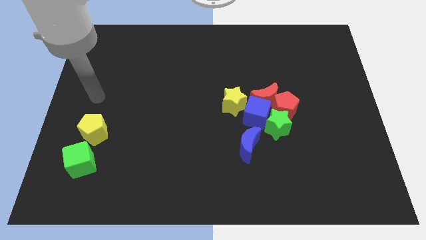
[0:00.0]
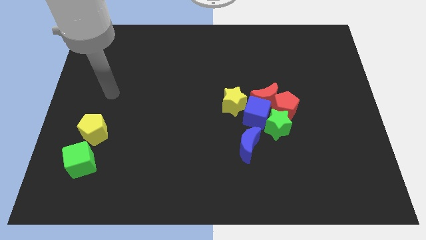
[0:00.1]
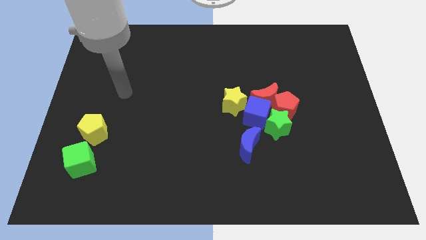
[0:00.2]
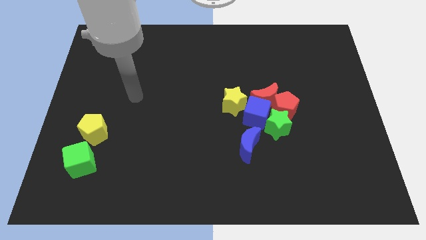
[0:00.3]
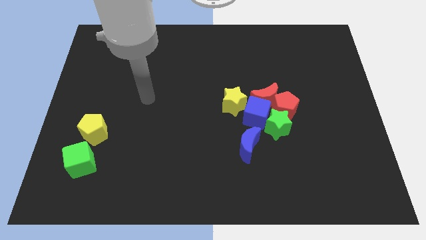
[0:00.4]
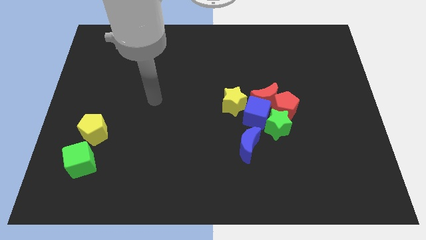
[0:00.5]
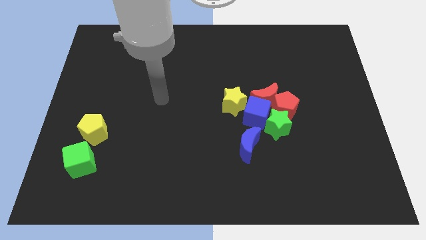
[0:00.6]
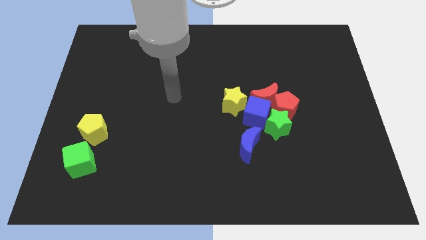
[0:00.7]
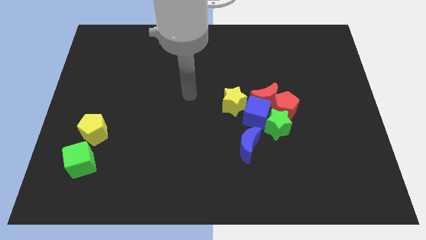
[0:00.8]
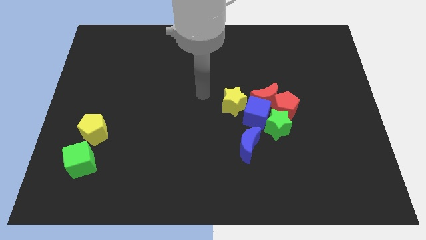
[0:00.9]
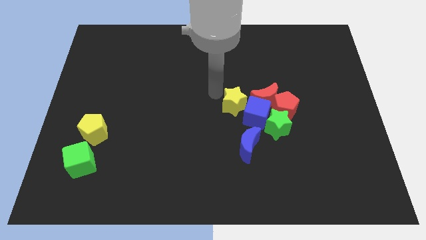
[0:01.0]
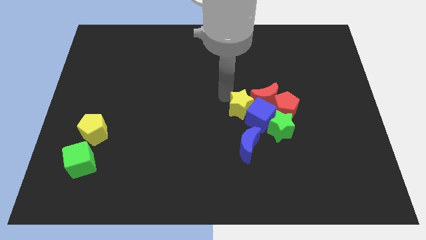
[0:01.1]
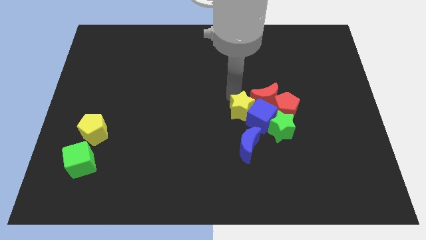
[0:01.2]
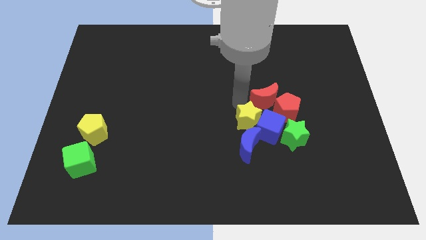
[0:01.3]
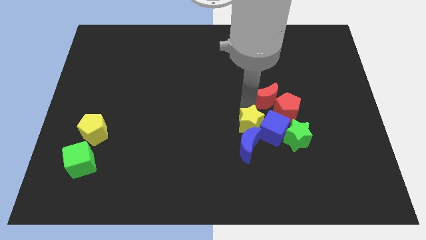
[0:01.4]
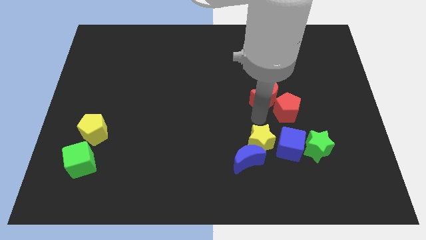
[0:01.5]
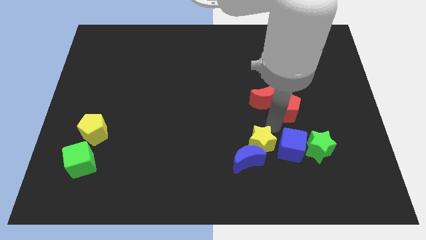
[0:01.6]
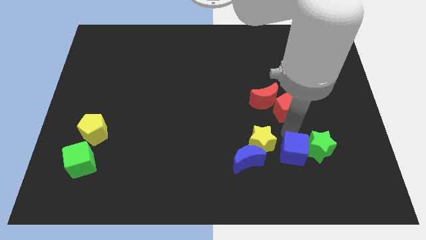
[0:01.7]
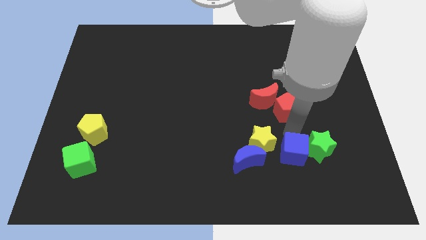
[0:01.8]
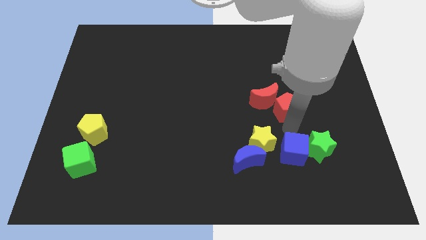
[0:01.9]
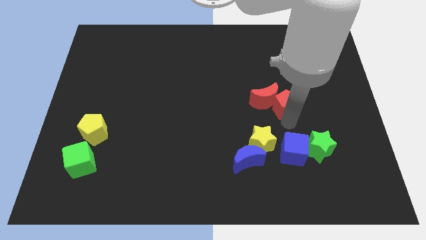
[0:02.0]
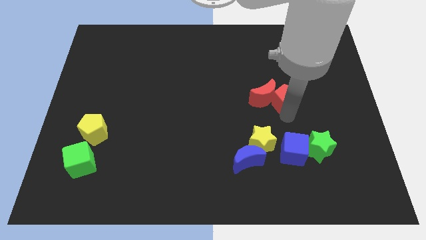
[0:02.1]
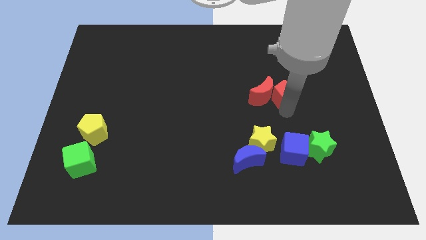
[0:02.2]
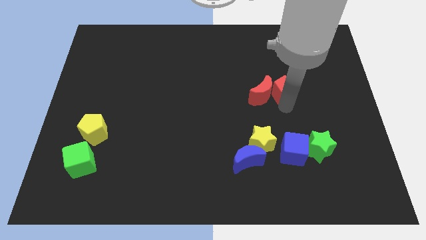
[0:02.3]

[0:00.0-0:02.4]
move the red pentagon away from the red moon, green star, and blue cube

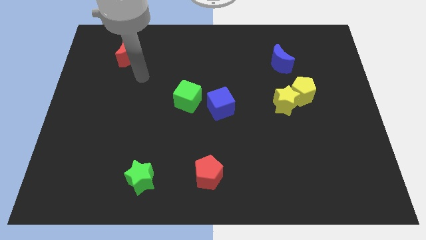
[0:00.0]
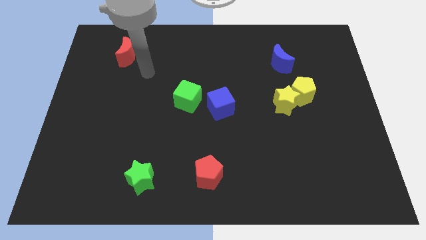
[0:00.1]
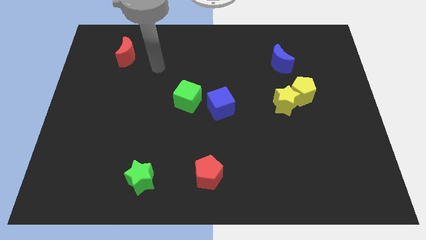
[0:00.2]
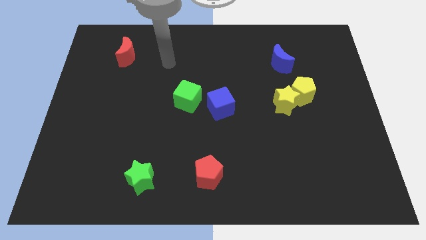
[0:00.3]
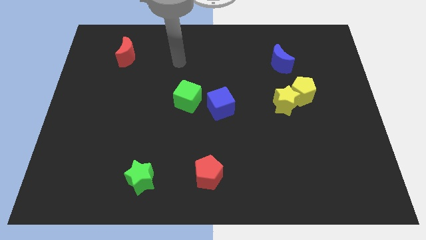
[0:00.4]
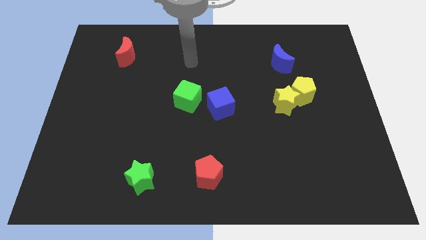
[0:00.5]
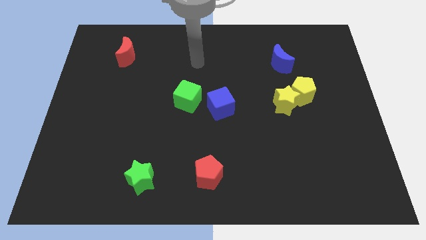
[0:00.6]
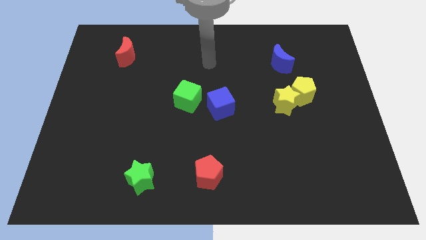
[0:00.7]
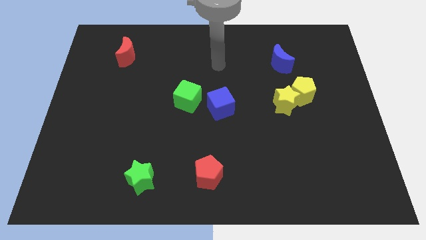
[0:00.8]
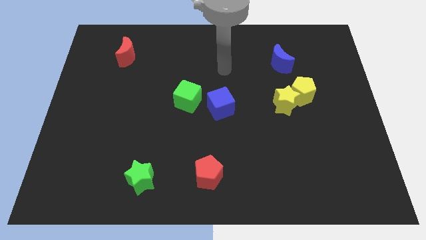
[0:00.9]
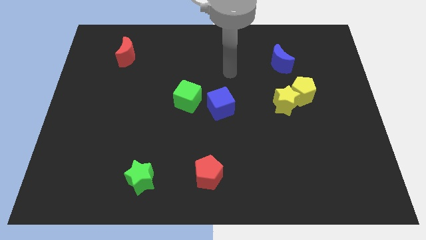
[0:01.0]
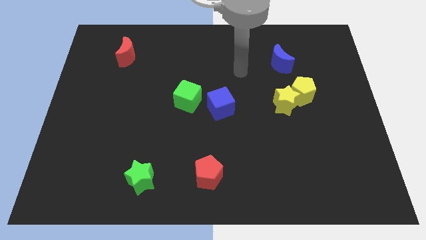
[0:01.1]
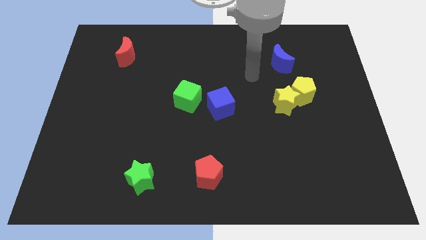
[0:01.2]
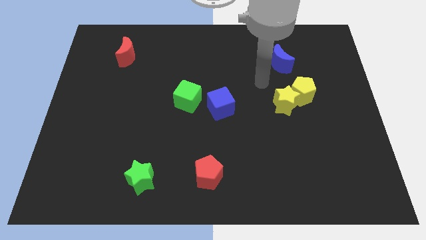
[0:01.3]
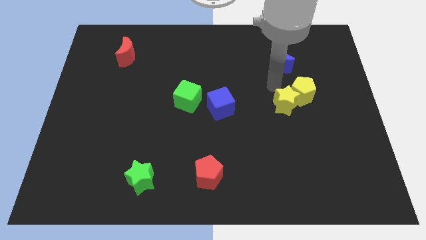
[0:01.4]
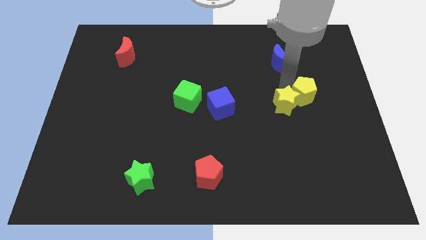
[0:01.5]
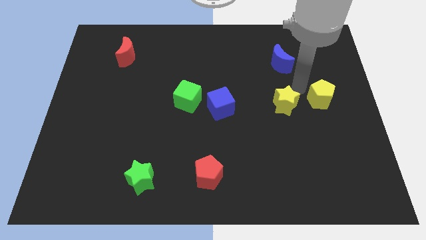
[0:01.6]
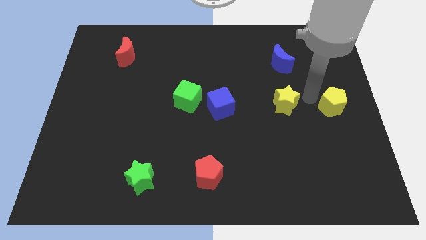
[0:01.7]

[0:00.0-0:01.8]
separate the yellow star from the yellow pentagon

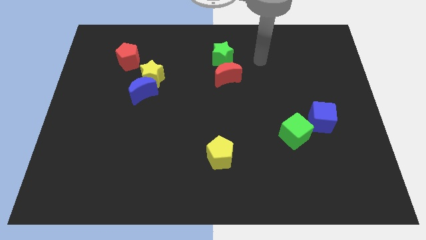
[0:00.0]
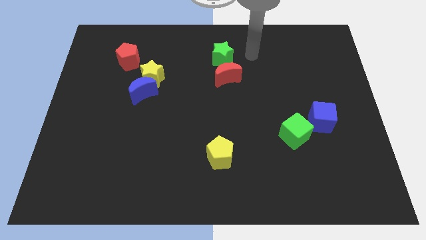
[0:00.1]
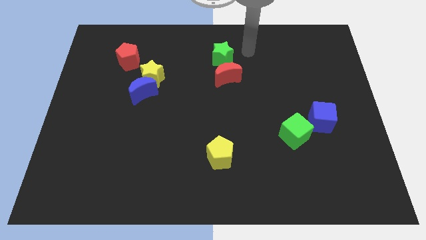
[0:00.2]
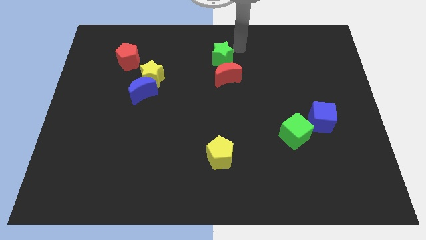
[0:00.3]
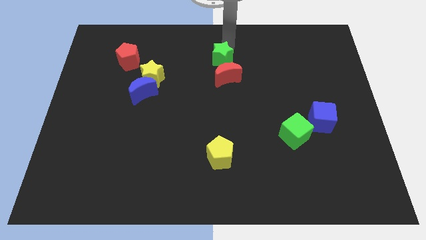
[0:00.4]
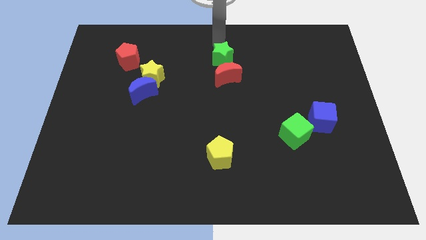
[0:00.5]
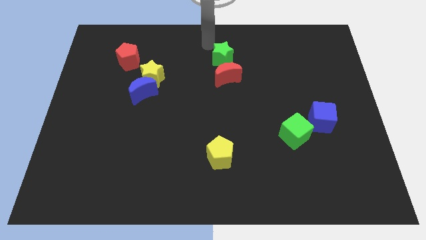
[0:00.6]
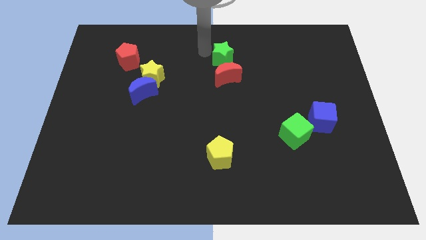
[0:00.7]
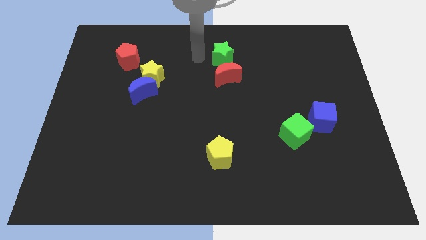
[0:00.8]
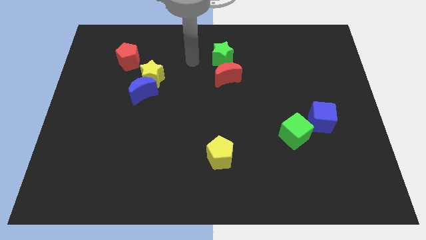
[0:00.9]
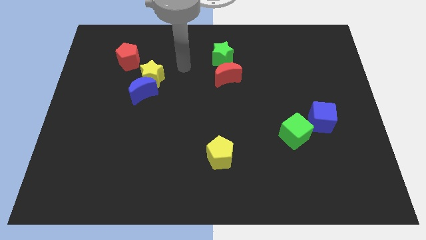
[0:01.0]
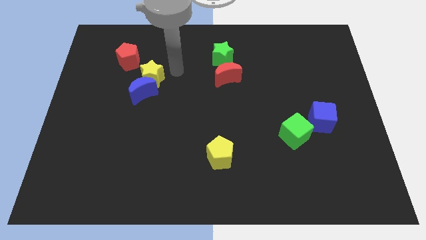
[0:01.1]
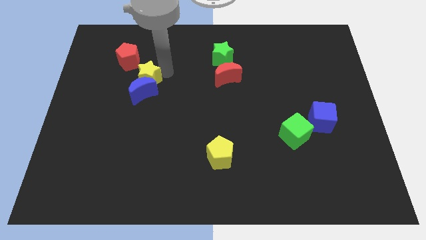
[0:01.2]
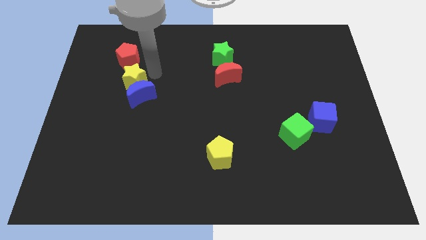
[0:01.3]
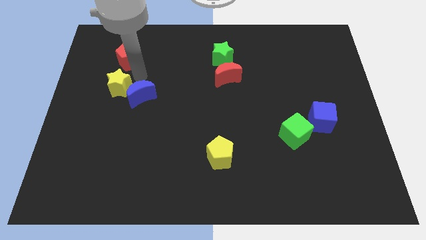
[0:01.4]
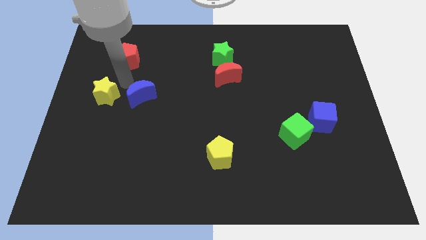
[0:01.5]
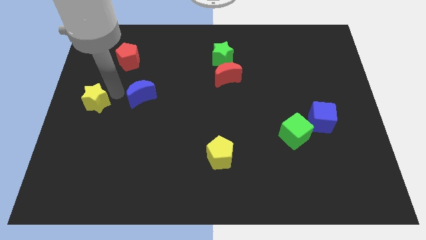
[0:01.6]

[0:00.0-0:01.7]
pull the blue moon apart from the yellow star

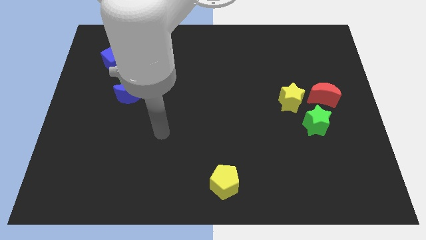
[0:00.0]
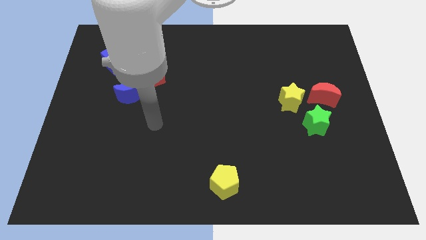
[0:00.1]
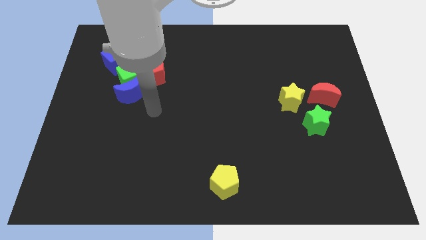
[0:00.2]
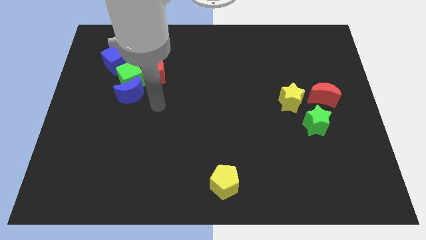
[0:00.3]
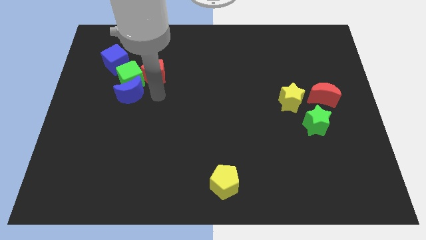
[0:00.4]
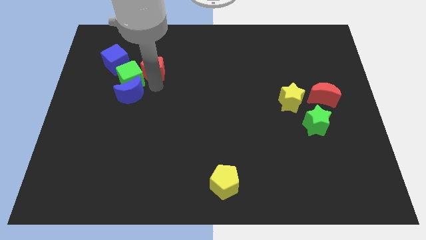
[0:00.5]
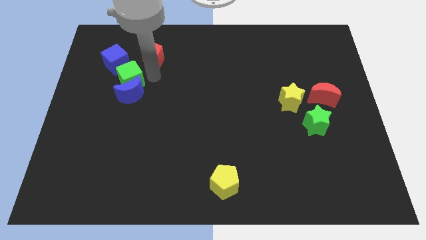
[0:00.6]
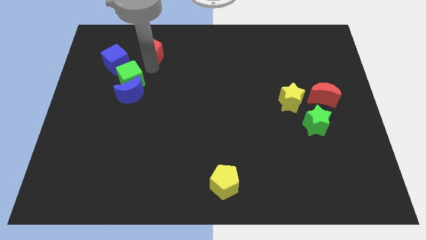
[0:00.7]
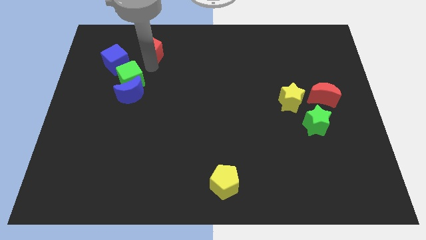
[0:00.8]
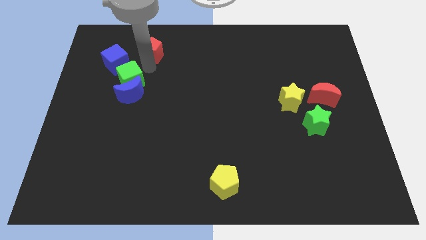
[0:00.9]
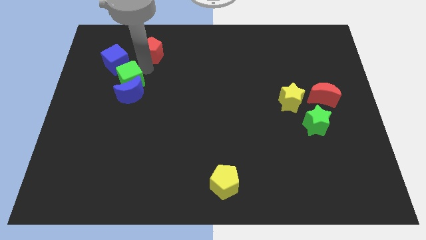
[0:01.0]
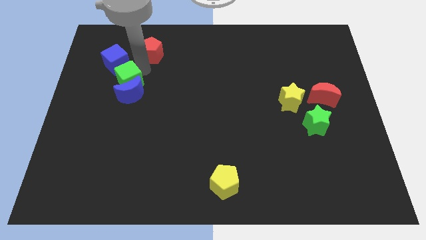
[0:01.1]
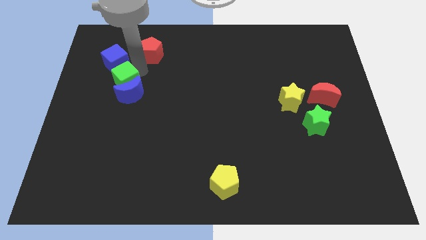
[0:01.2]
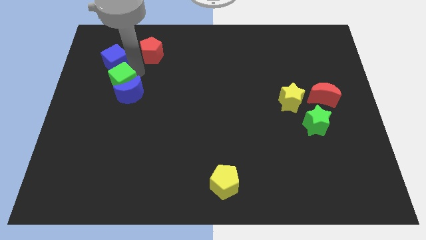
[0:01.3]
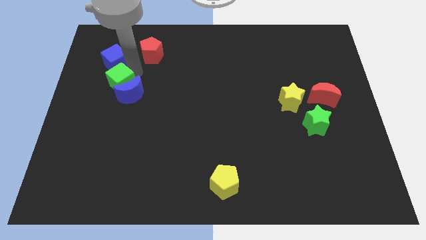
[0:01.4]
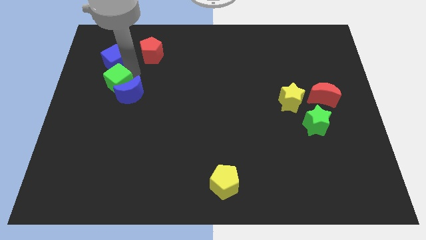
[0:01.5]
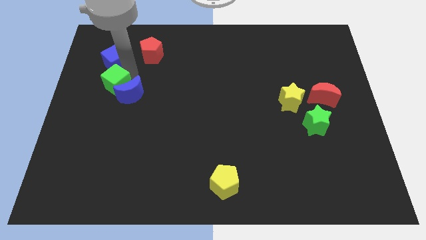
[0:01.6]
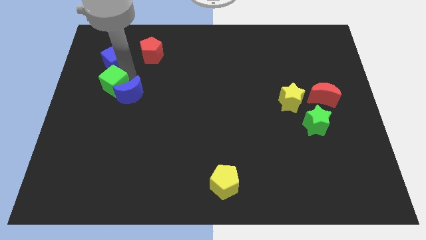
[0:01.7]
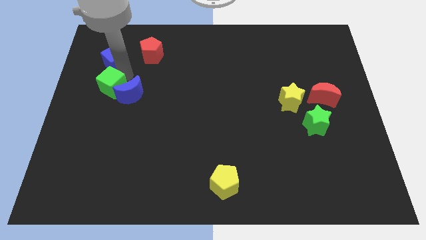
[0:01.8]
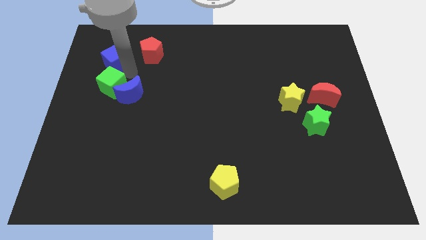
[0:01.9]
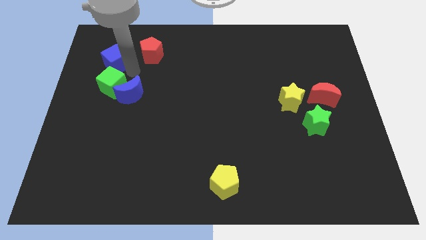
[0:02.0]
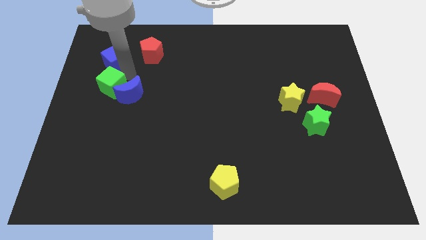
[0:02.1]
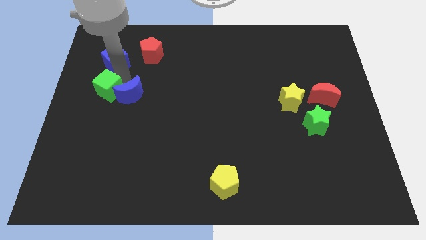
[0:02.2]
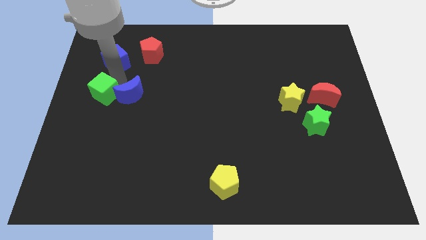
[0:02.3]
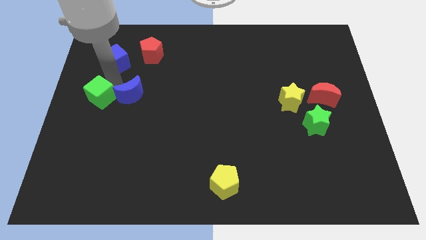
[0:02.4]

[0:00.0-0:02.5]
pull the green cube apart from the clump

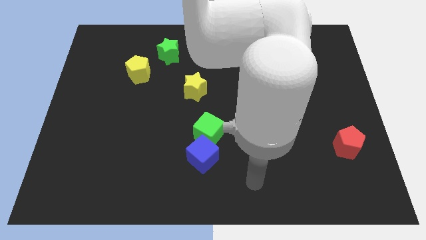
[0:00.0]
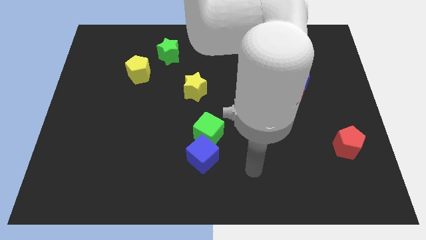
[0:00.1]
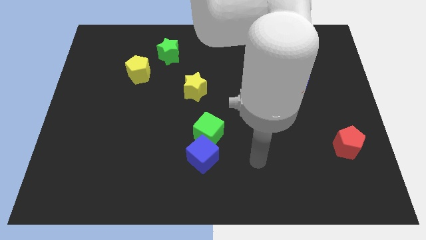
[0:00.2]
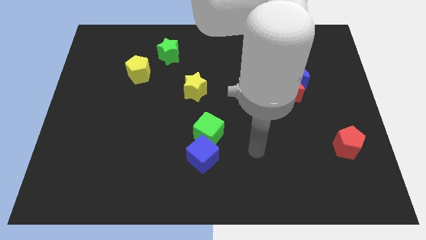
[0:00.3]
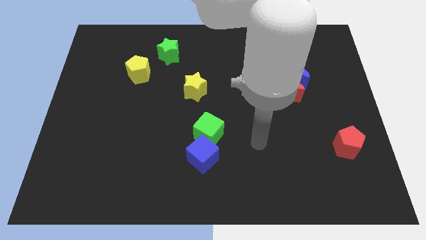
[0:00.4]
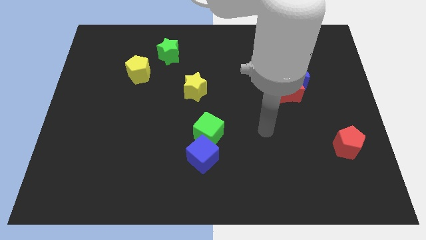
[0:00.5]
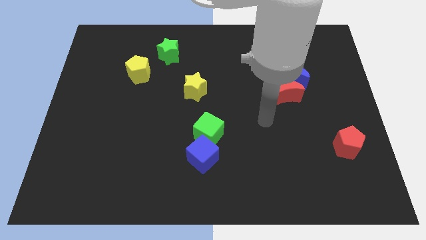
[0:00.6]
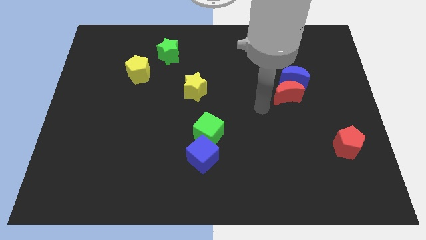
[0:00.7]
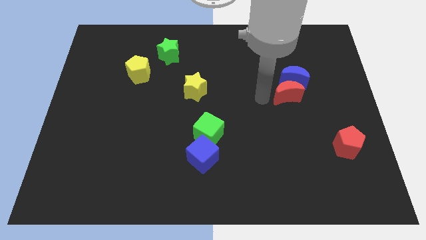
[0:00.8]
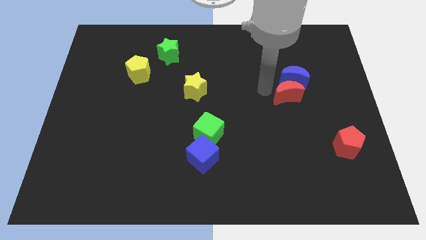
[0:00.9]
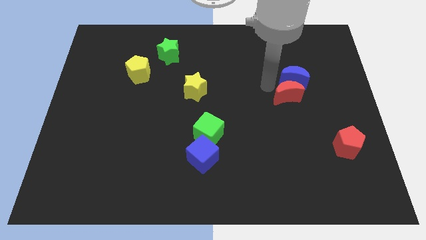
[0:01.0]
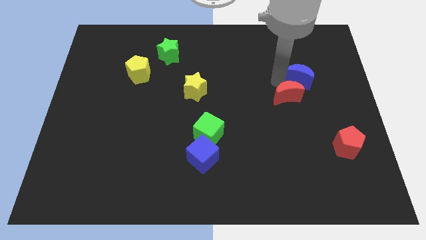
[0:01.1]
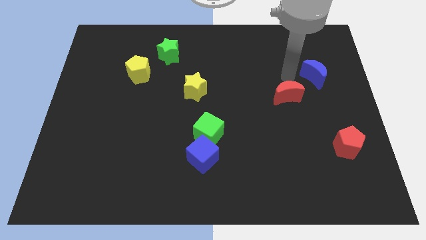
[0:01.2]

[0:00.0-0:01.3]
move the red moon away from the blue moon
